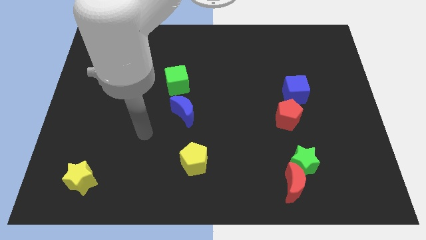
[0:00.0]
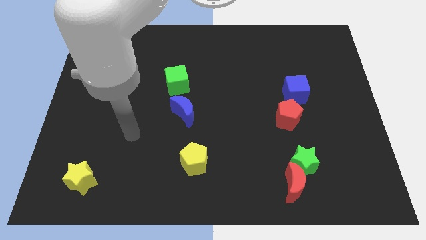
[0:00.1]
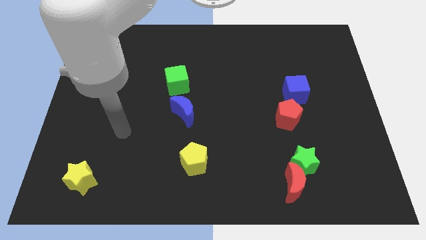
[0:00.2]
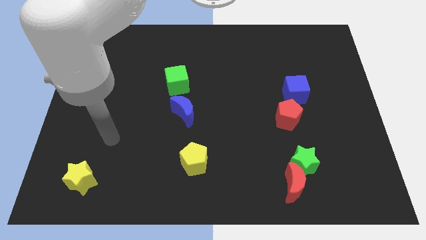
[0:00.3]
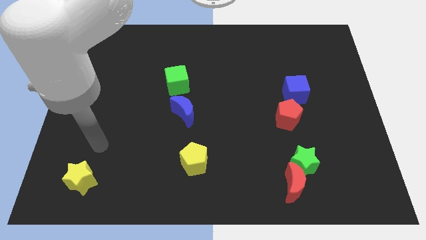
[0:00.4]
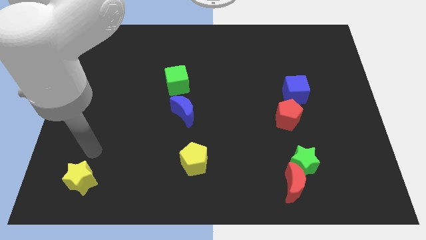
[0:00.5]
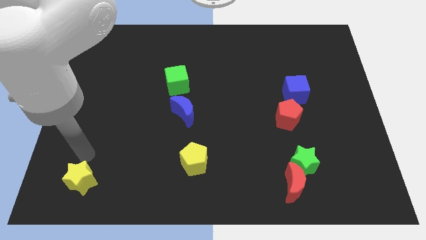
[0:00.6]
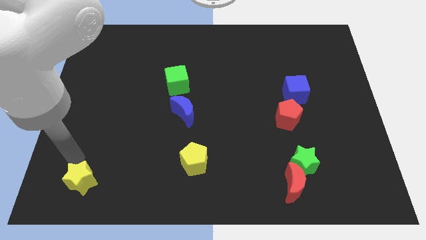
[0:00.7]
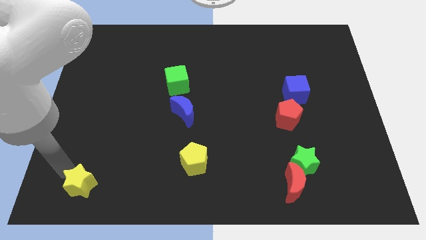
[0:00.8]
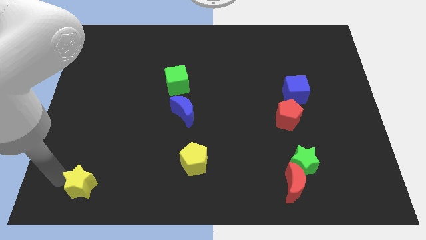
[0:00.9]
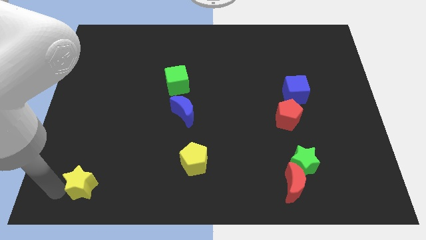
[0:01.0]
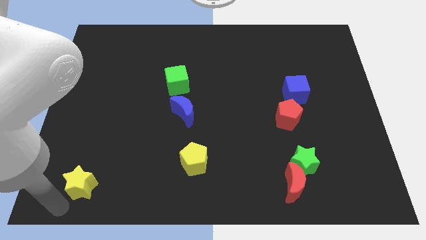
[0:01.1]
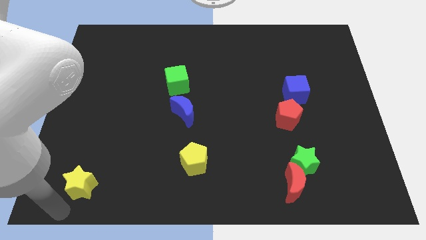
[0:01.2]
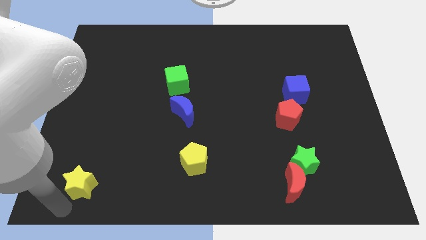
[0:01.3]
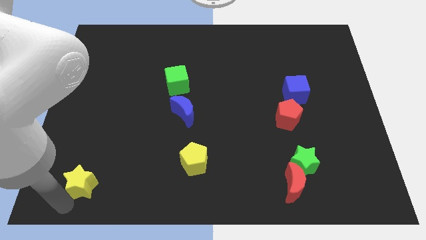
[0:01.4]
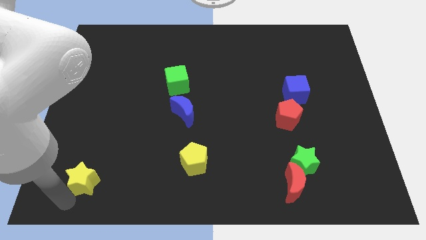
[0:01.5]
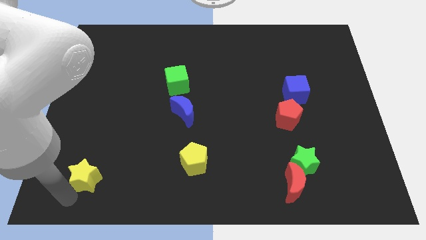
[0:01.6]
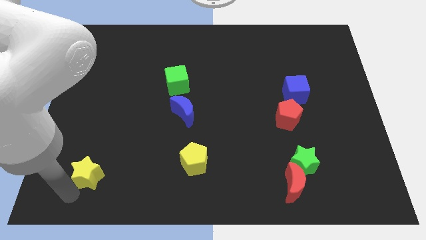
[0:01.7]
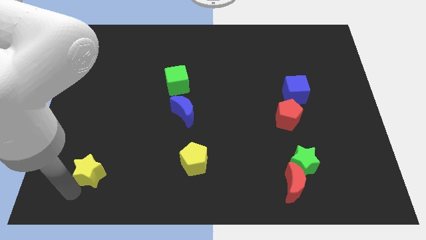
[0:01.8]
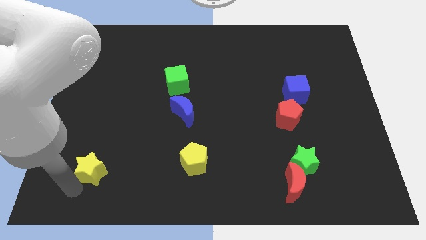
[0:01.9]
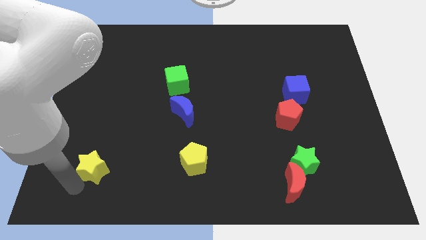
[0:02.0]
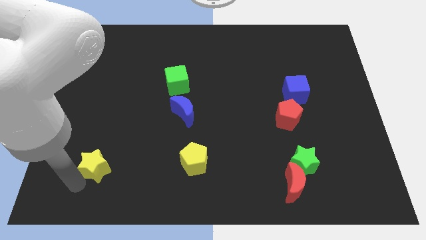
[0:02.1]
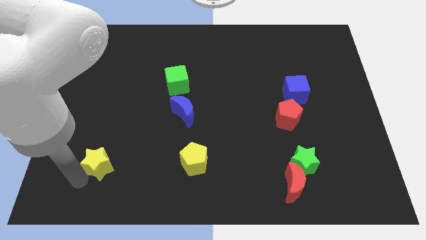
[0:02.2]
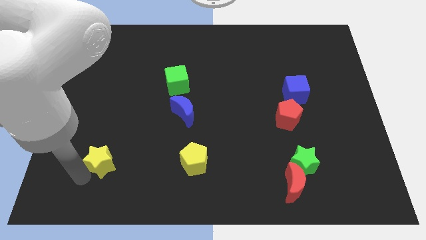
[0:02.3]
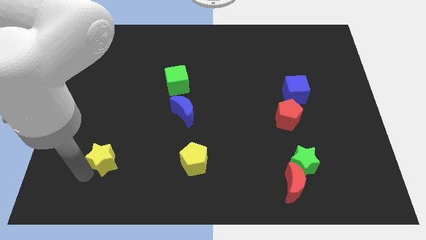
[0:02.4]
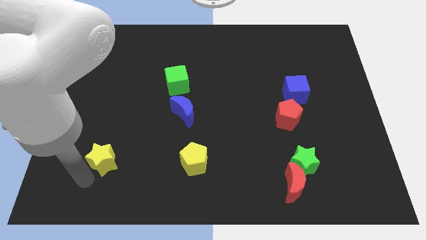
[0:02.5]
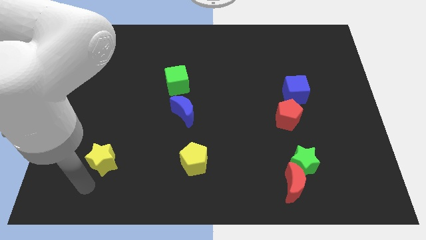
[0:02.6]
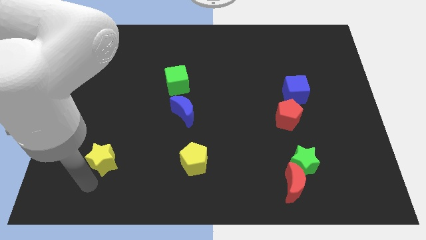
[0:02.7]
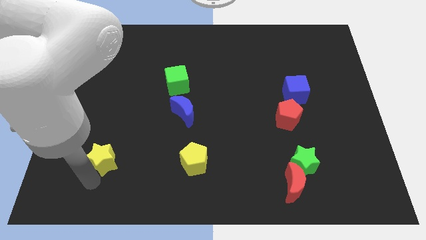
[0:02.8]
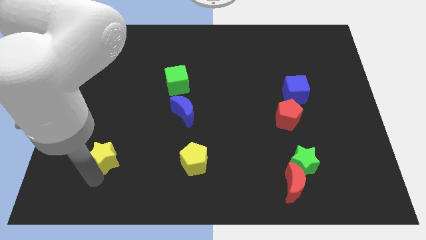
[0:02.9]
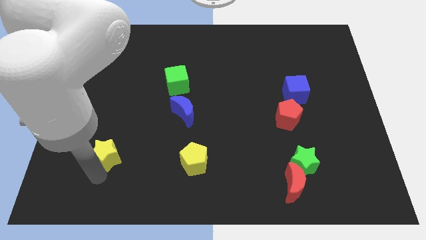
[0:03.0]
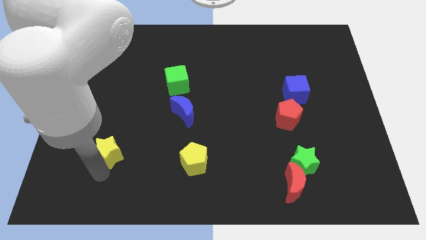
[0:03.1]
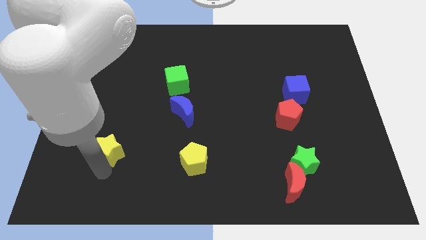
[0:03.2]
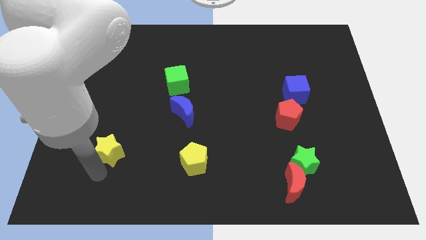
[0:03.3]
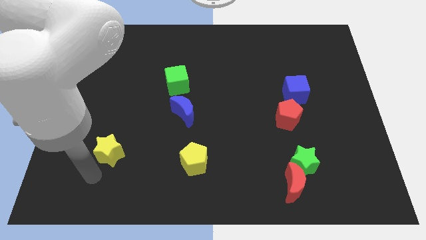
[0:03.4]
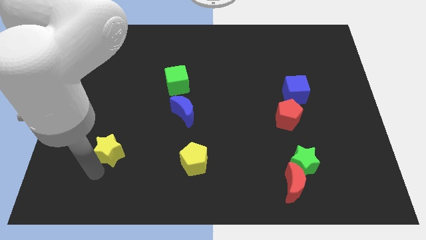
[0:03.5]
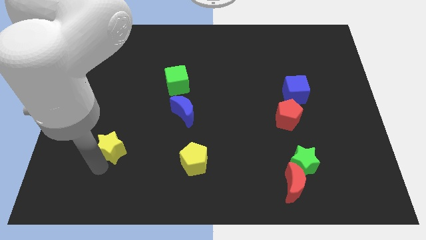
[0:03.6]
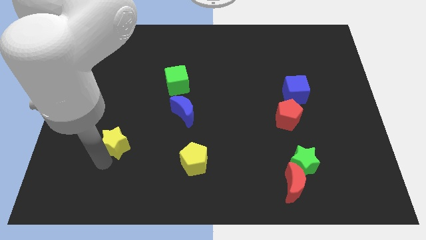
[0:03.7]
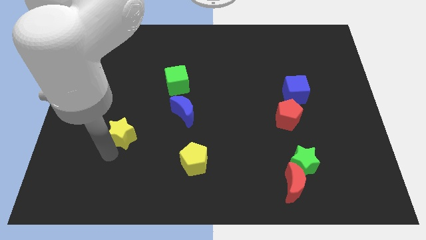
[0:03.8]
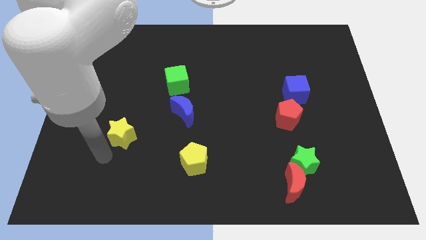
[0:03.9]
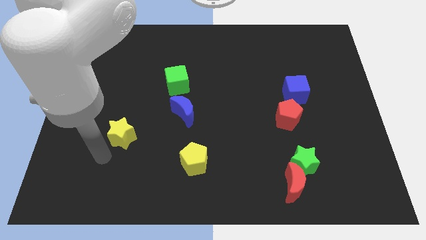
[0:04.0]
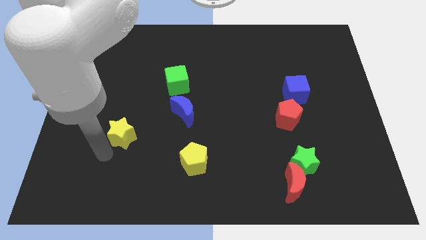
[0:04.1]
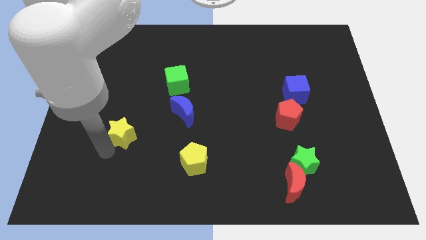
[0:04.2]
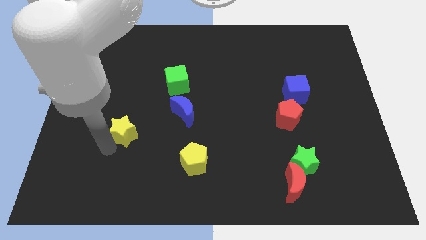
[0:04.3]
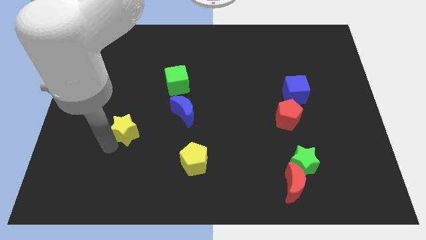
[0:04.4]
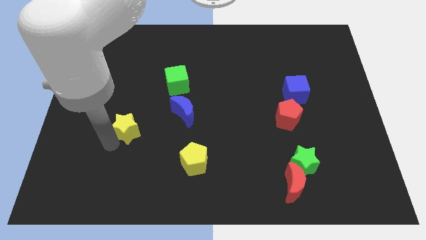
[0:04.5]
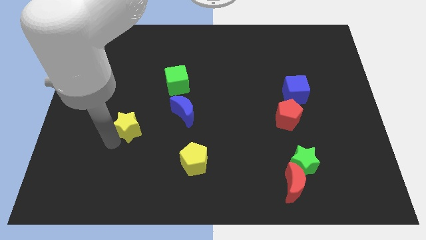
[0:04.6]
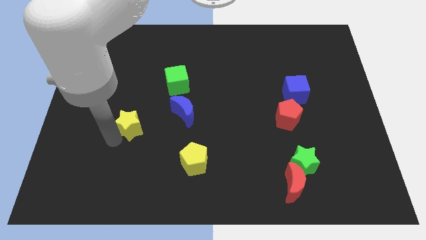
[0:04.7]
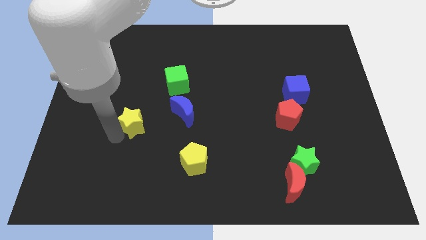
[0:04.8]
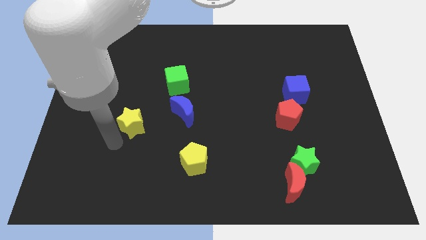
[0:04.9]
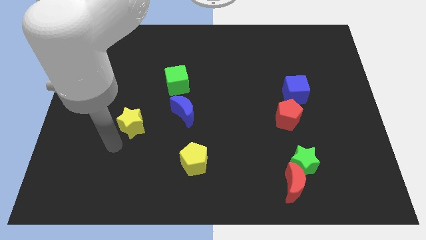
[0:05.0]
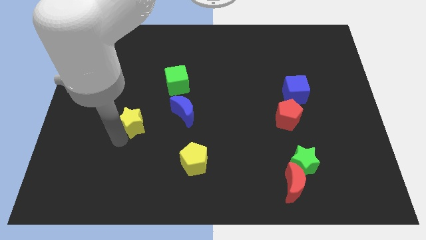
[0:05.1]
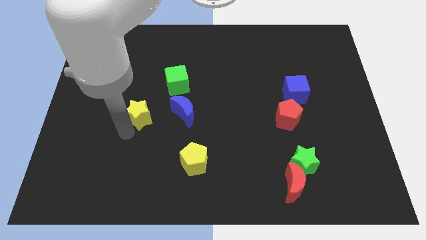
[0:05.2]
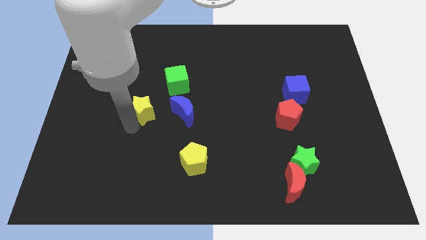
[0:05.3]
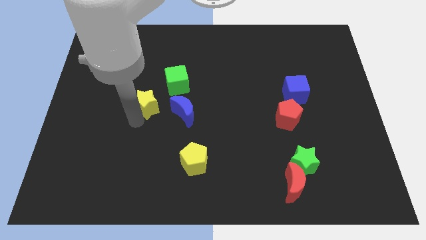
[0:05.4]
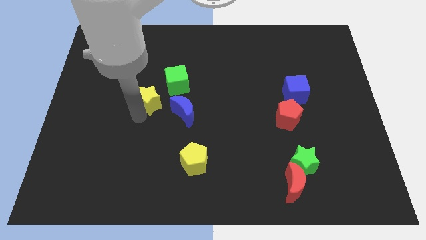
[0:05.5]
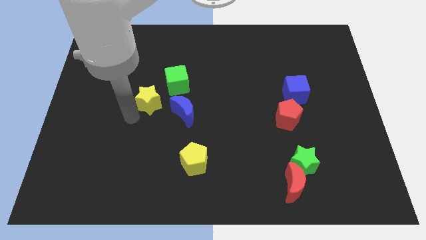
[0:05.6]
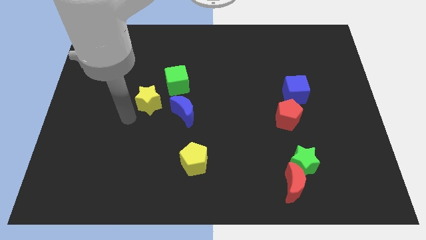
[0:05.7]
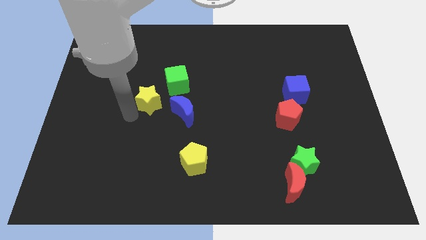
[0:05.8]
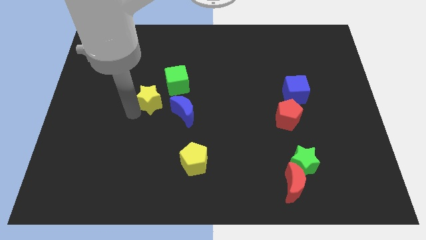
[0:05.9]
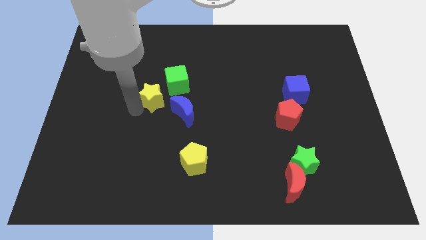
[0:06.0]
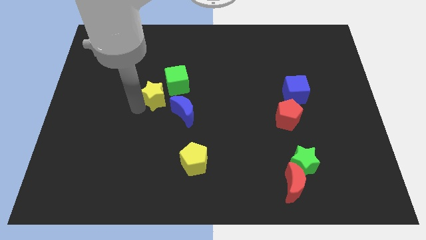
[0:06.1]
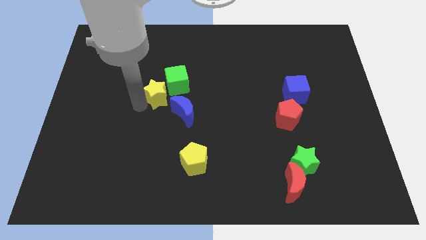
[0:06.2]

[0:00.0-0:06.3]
slide the yellow star towards the green cube

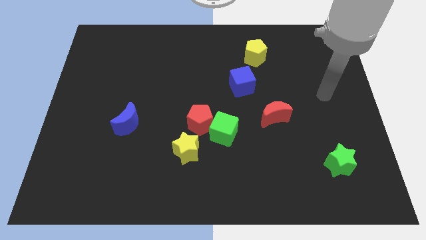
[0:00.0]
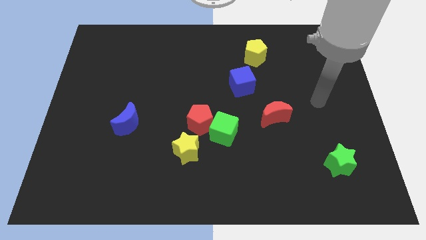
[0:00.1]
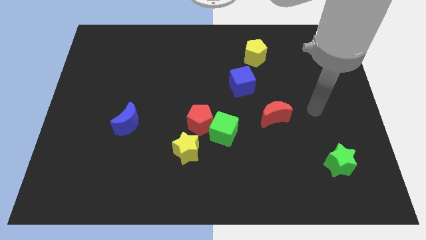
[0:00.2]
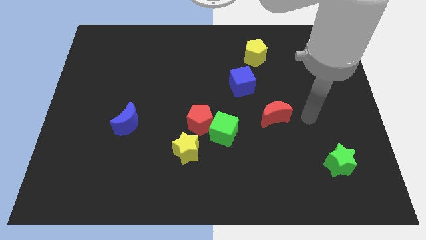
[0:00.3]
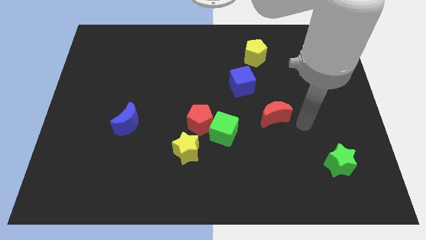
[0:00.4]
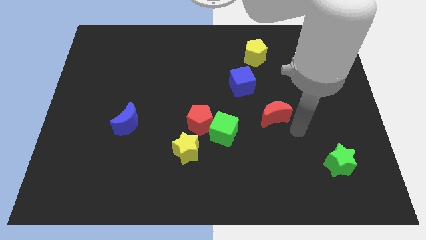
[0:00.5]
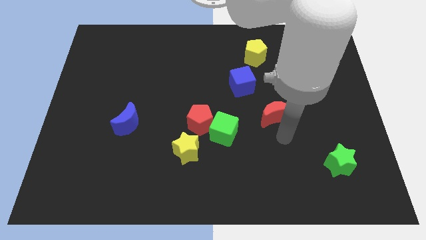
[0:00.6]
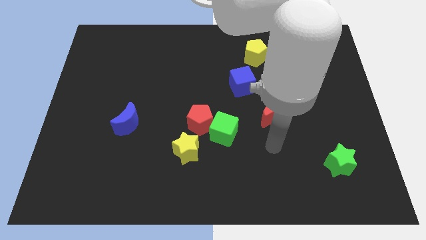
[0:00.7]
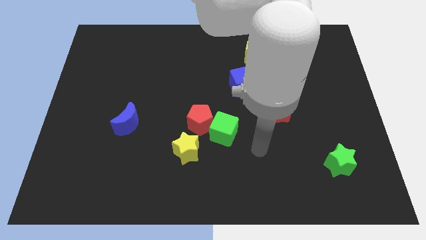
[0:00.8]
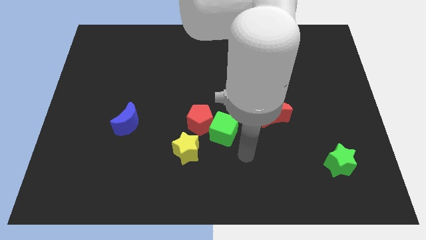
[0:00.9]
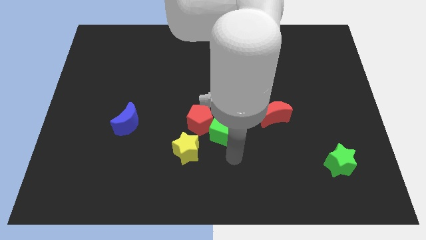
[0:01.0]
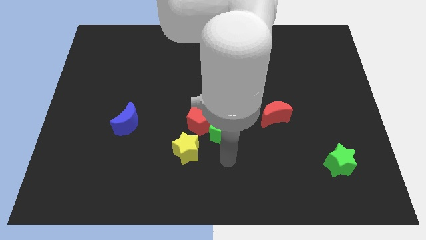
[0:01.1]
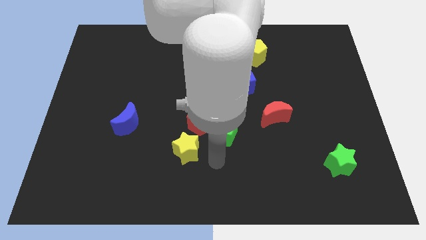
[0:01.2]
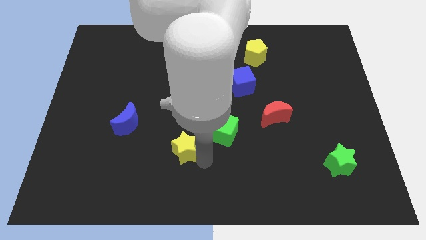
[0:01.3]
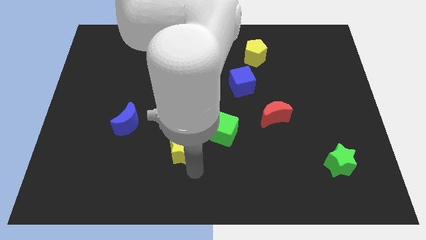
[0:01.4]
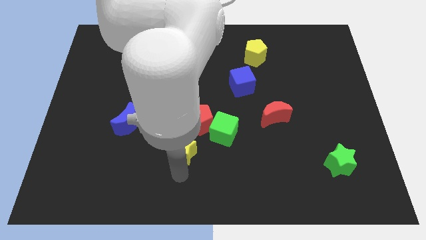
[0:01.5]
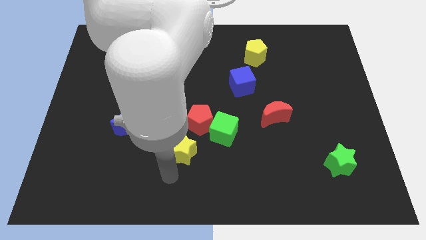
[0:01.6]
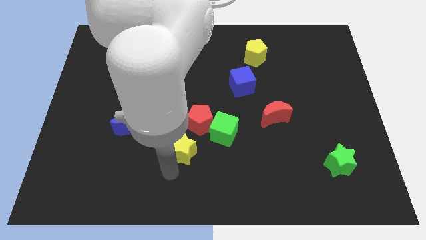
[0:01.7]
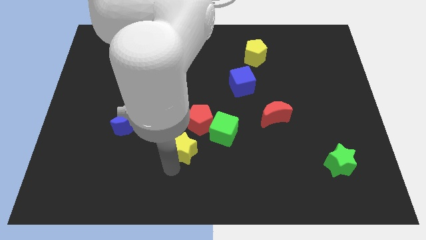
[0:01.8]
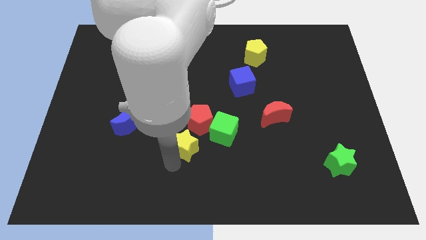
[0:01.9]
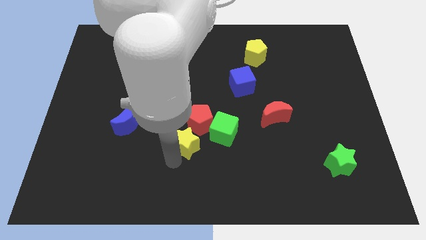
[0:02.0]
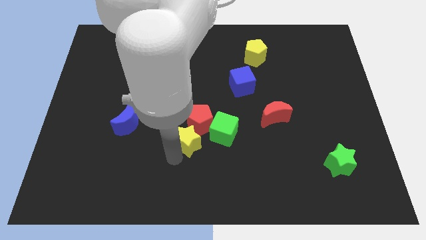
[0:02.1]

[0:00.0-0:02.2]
move the yellow star towards the red pentagon
